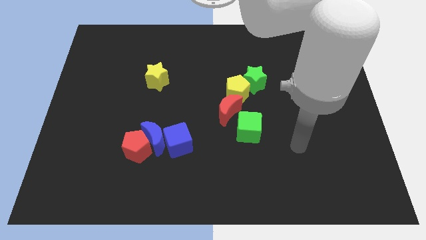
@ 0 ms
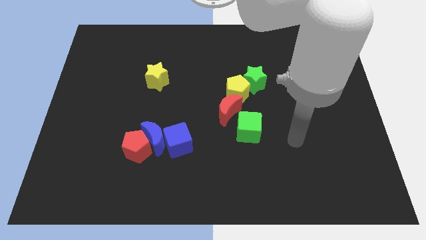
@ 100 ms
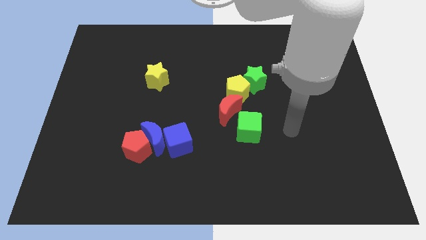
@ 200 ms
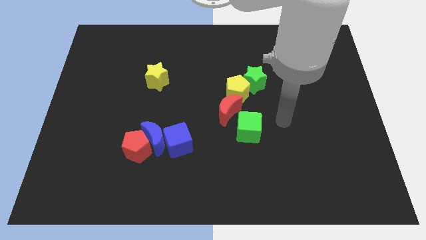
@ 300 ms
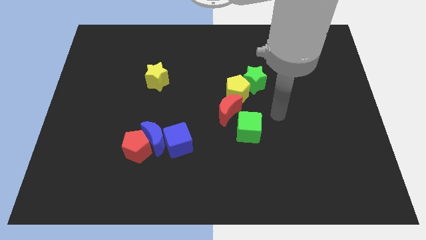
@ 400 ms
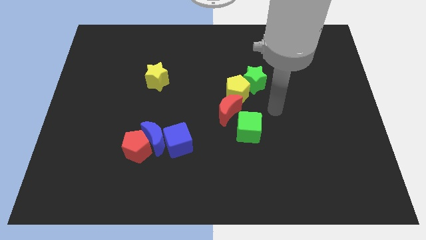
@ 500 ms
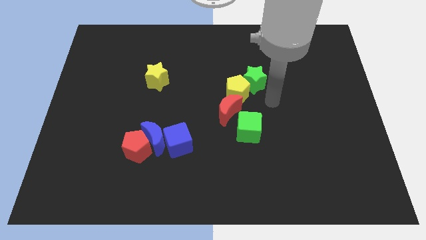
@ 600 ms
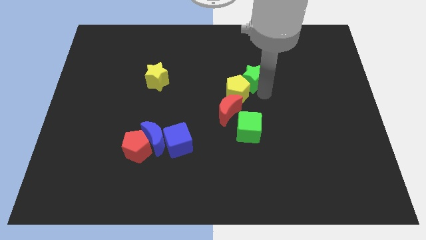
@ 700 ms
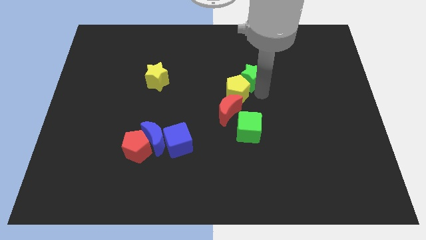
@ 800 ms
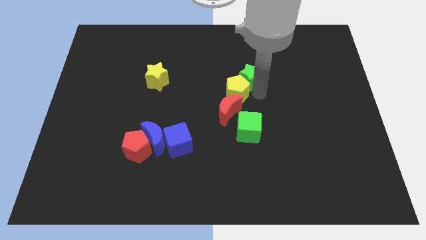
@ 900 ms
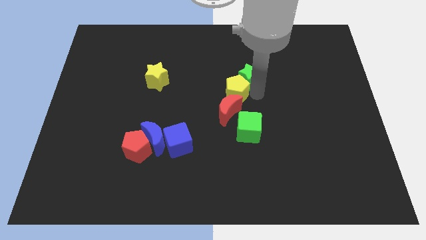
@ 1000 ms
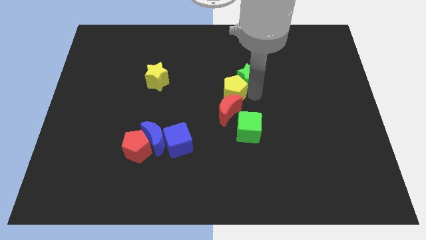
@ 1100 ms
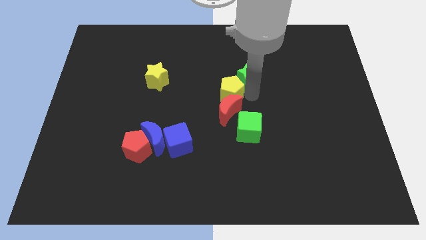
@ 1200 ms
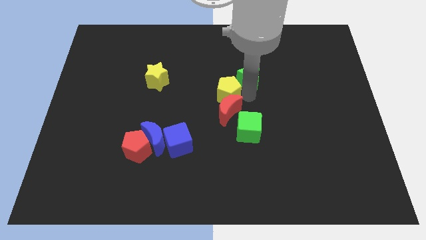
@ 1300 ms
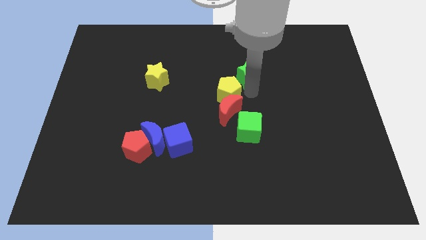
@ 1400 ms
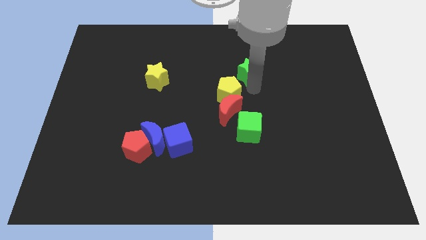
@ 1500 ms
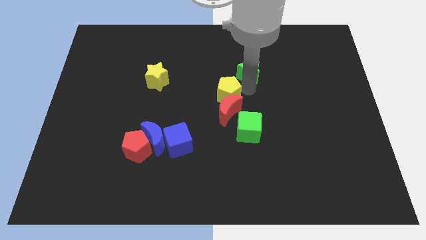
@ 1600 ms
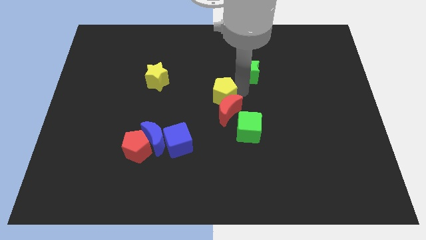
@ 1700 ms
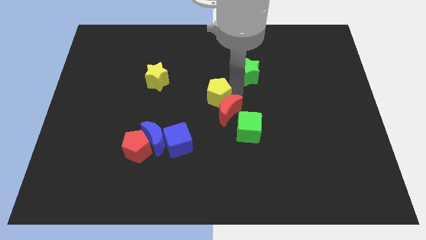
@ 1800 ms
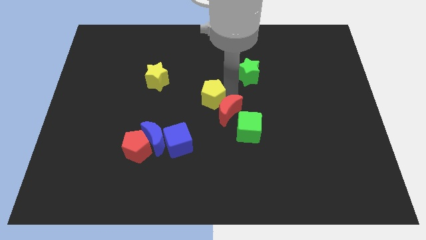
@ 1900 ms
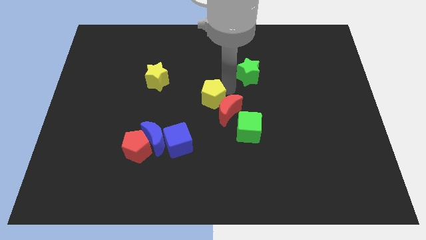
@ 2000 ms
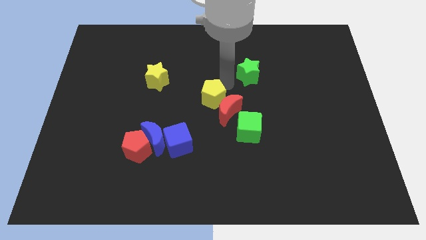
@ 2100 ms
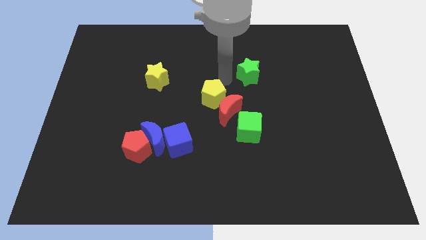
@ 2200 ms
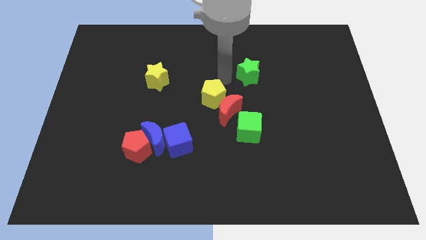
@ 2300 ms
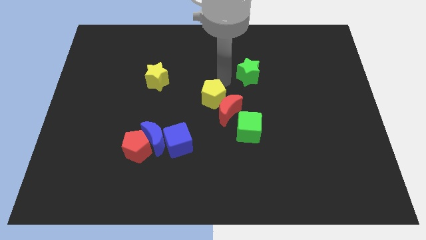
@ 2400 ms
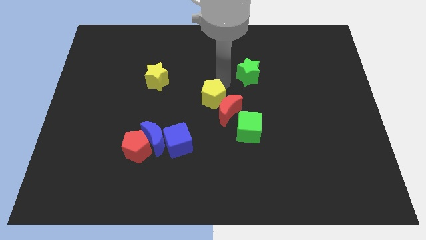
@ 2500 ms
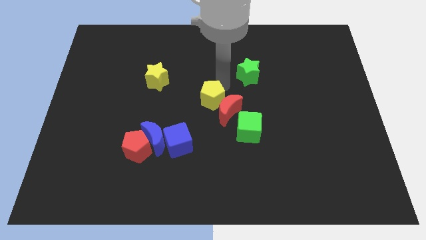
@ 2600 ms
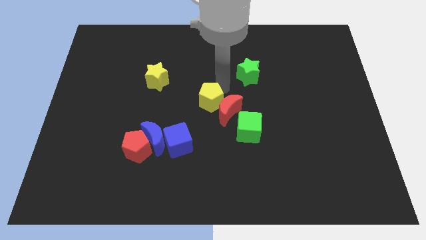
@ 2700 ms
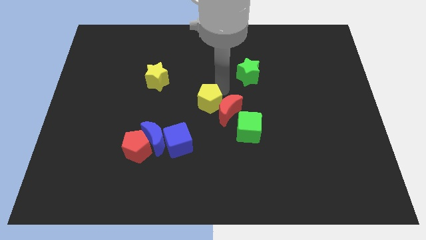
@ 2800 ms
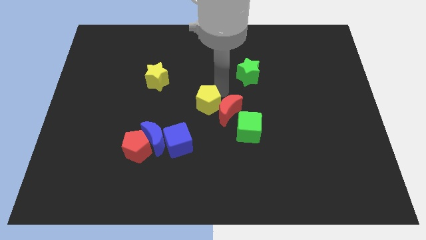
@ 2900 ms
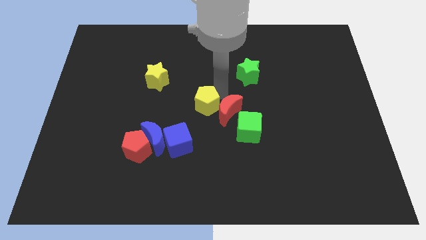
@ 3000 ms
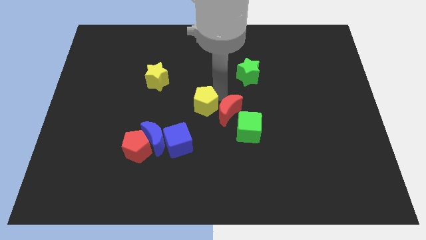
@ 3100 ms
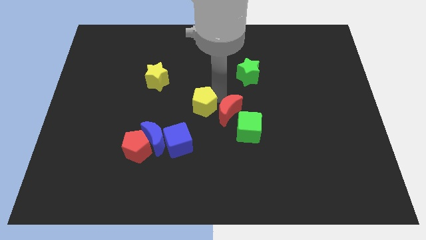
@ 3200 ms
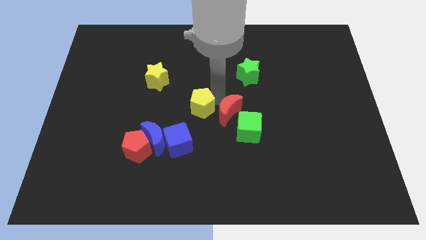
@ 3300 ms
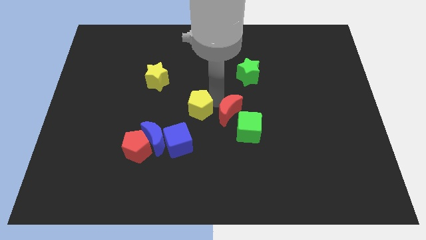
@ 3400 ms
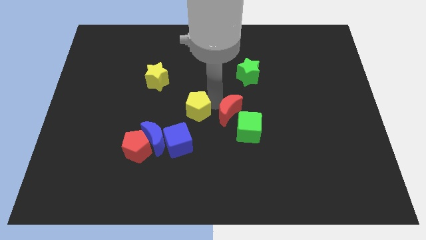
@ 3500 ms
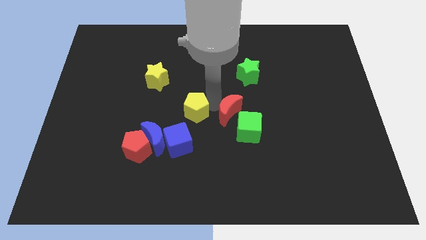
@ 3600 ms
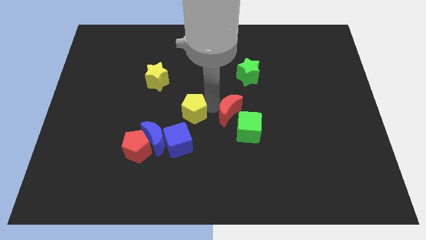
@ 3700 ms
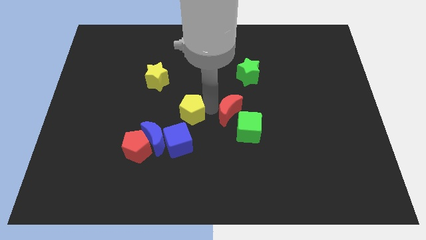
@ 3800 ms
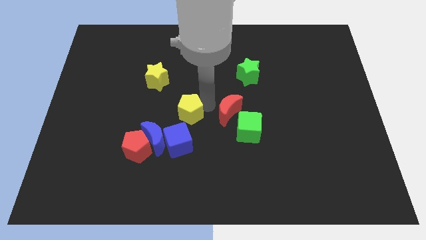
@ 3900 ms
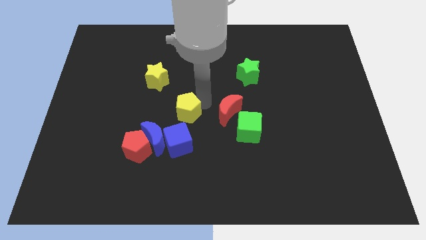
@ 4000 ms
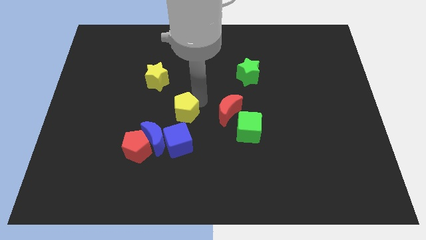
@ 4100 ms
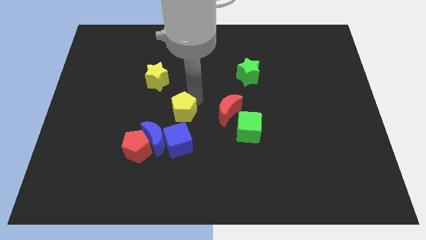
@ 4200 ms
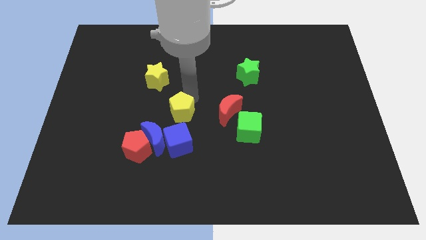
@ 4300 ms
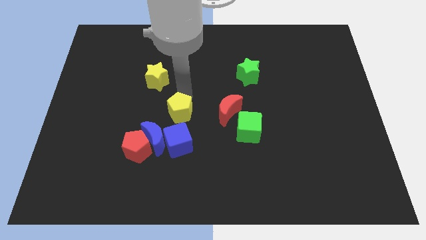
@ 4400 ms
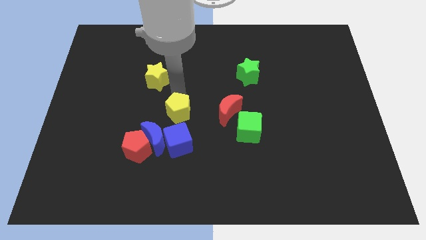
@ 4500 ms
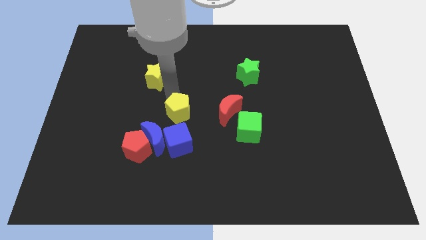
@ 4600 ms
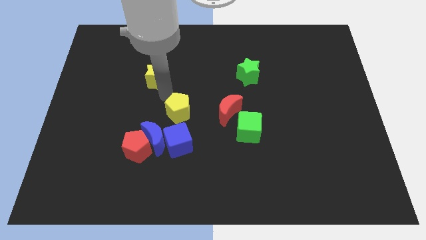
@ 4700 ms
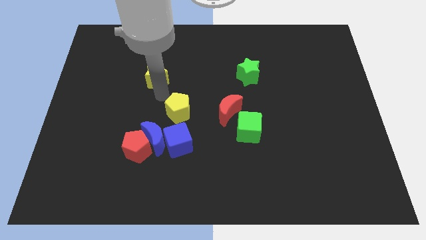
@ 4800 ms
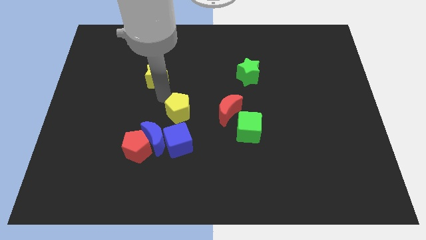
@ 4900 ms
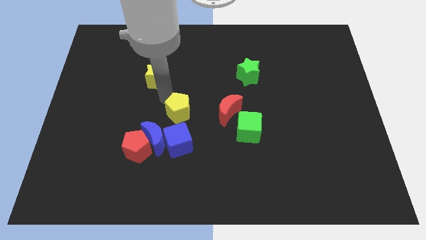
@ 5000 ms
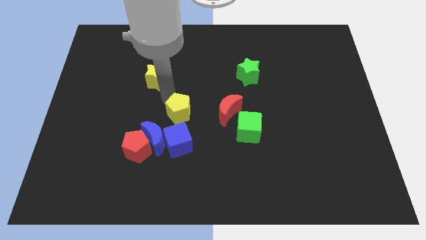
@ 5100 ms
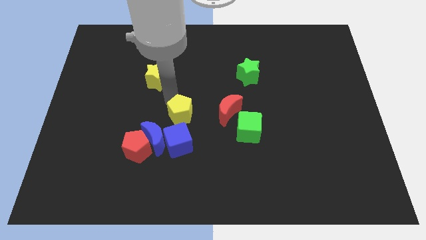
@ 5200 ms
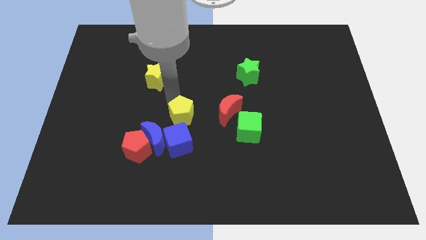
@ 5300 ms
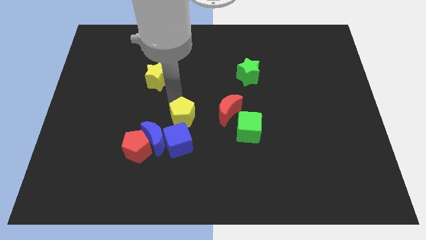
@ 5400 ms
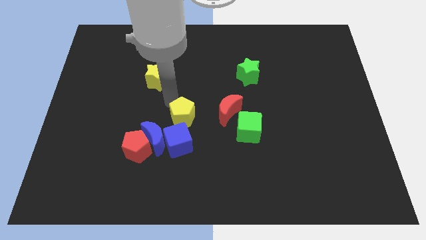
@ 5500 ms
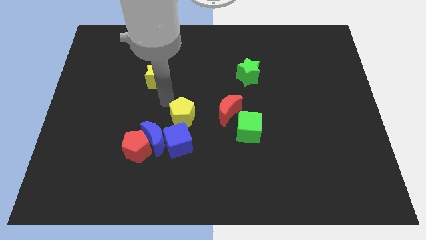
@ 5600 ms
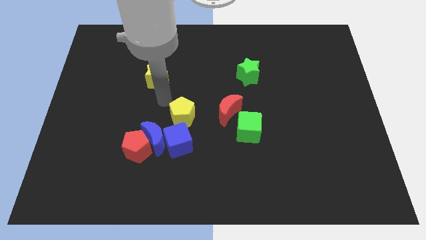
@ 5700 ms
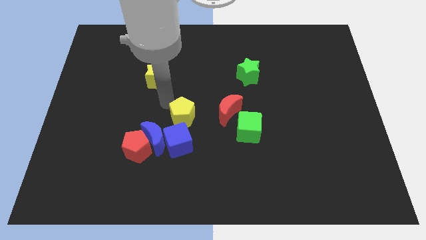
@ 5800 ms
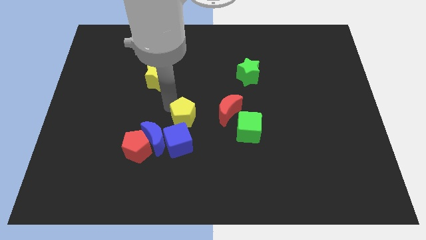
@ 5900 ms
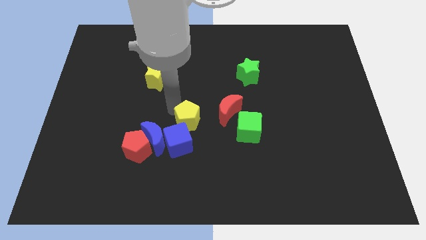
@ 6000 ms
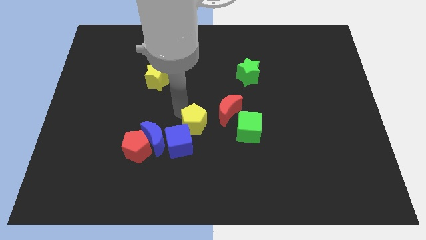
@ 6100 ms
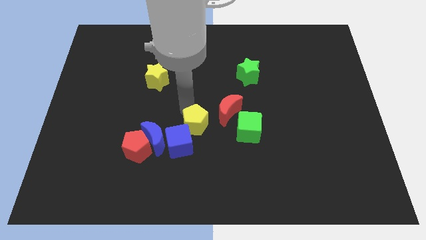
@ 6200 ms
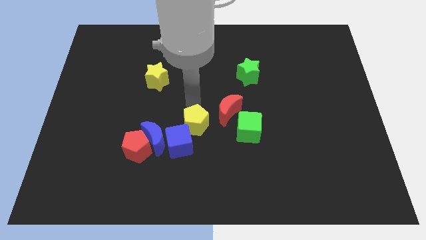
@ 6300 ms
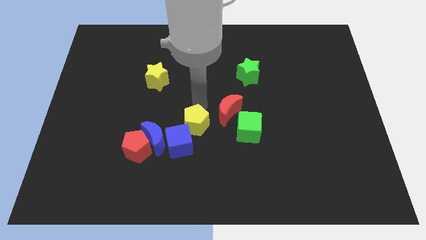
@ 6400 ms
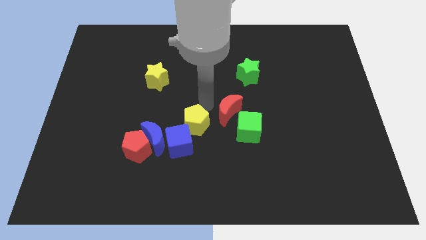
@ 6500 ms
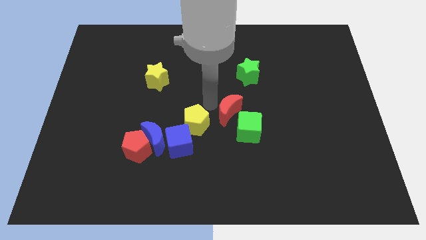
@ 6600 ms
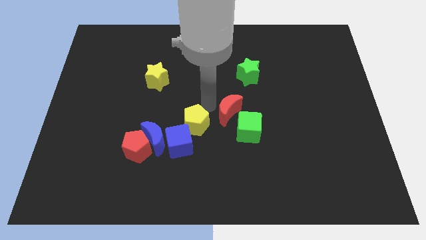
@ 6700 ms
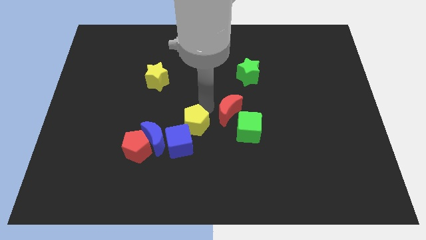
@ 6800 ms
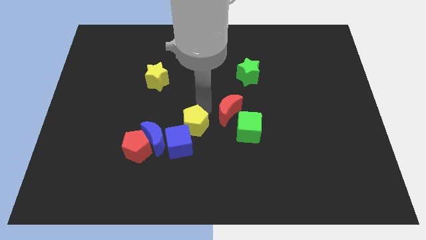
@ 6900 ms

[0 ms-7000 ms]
slide the yellow pentagon to the blue cube

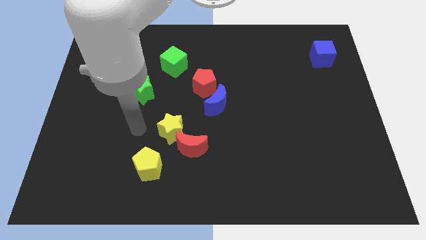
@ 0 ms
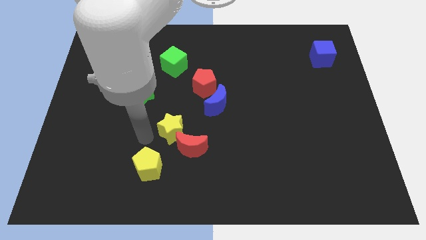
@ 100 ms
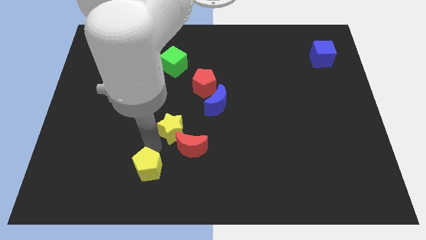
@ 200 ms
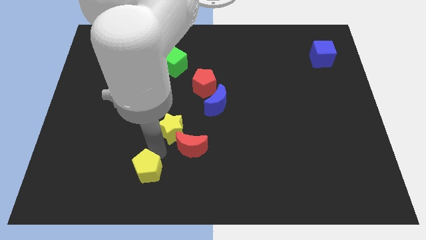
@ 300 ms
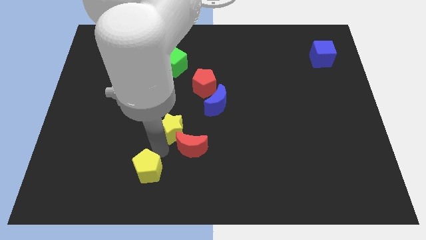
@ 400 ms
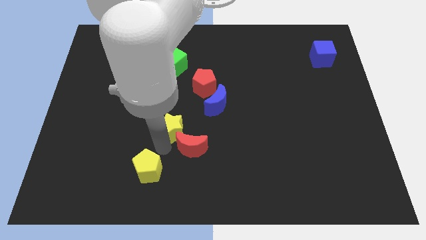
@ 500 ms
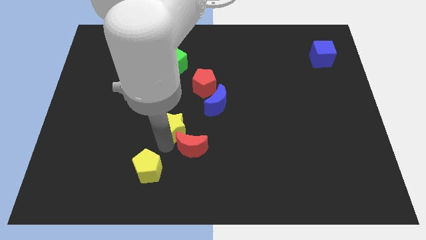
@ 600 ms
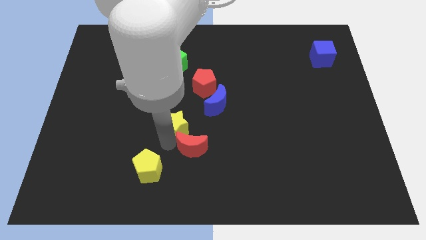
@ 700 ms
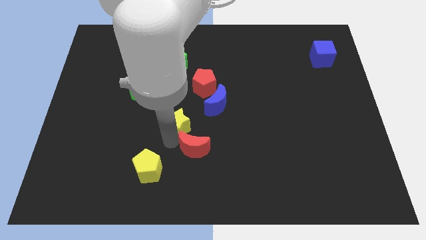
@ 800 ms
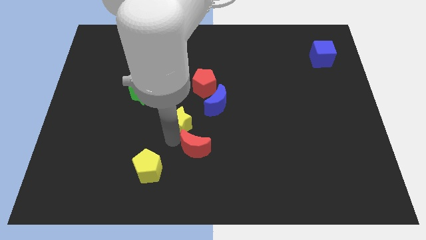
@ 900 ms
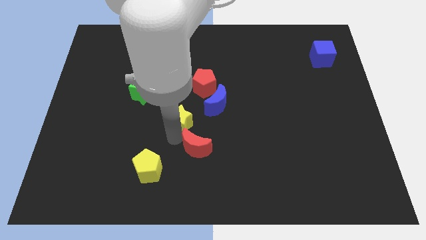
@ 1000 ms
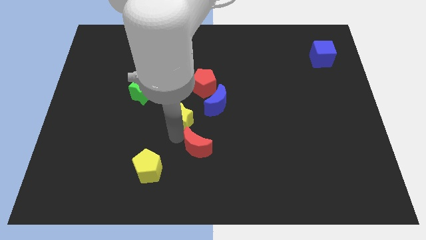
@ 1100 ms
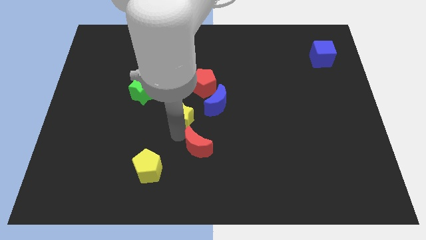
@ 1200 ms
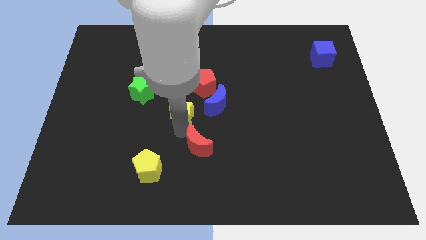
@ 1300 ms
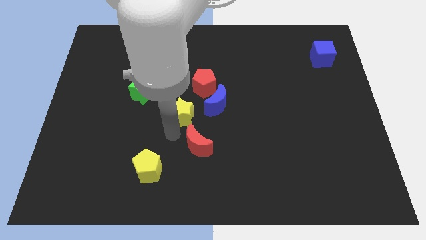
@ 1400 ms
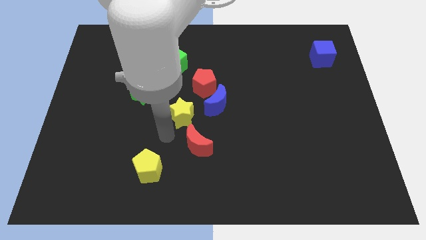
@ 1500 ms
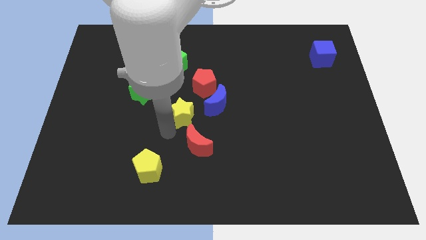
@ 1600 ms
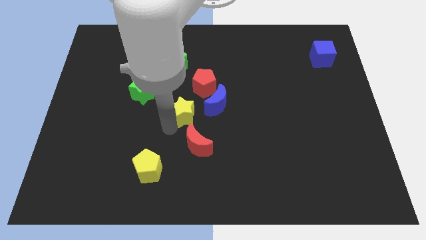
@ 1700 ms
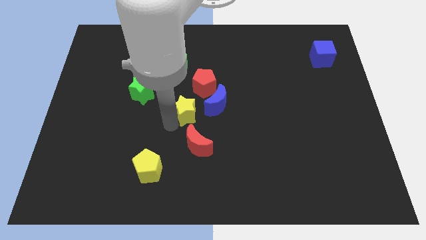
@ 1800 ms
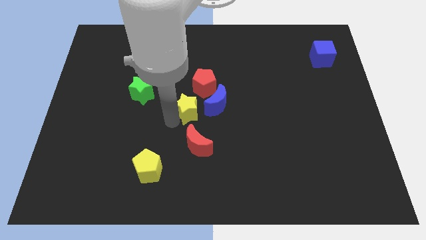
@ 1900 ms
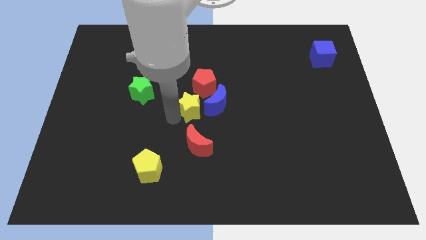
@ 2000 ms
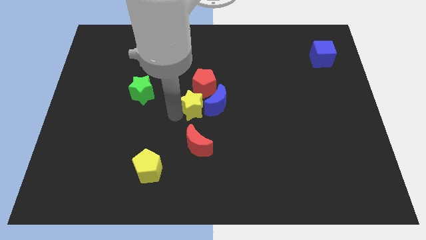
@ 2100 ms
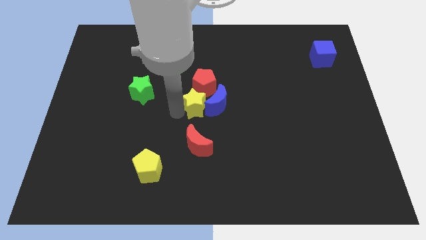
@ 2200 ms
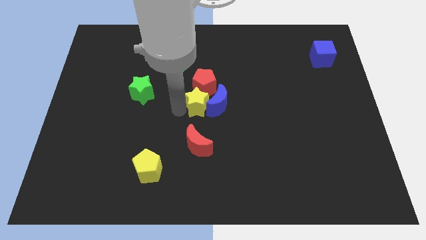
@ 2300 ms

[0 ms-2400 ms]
slide the yellow star next to the red pentagon
